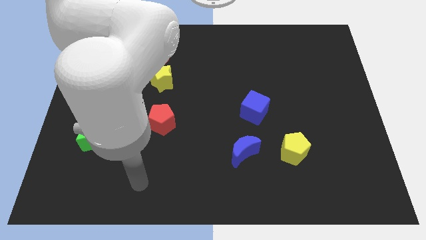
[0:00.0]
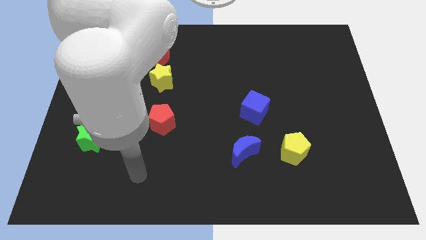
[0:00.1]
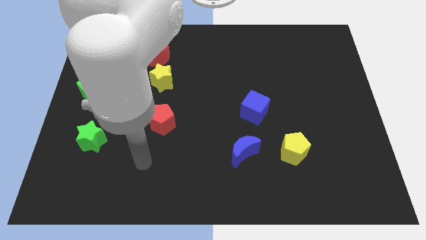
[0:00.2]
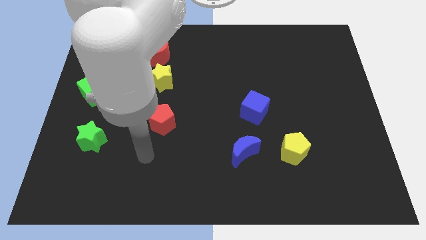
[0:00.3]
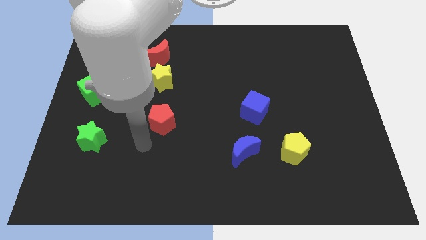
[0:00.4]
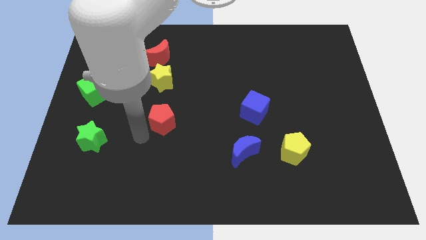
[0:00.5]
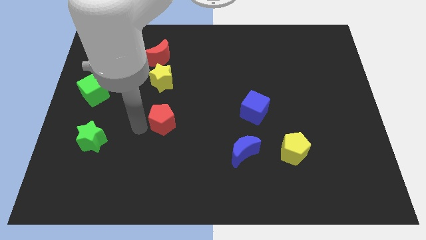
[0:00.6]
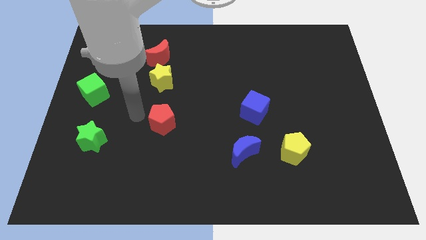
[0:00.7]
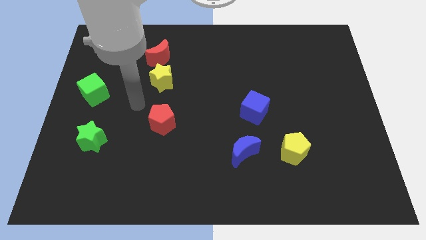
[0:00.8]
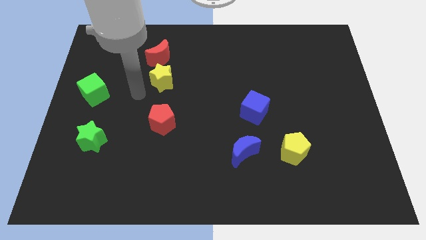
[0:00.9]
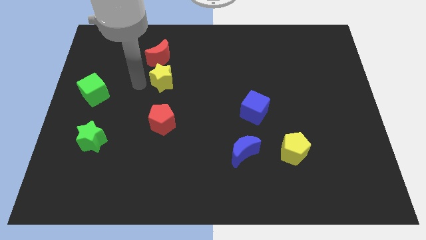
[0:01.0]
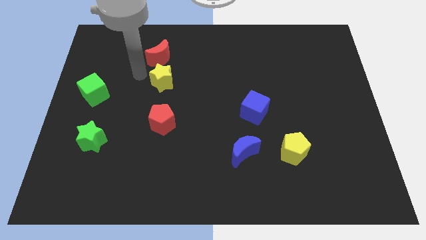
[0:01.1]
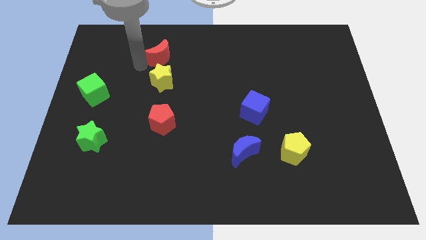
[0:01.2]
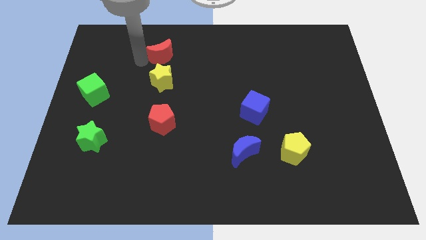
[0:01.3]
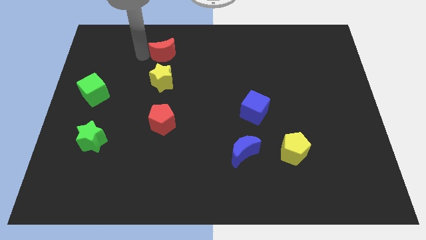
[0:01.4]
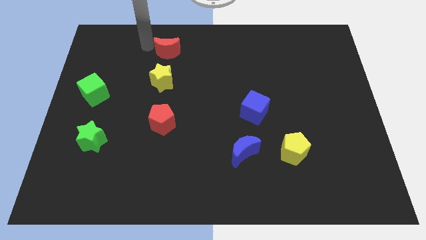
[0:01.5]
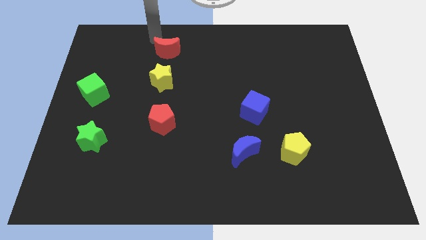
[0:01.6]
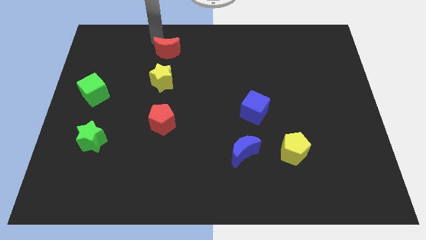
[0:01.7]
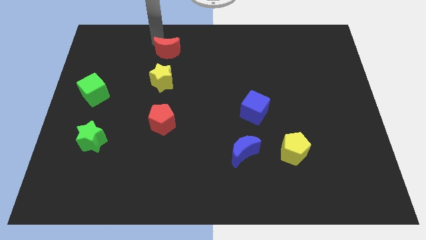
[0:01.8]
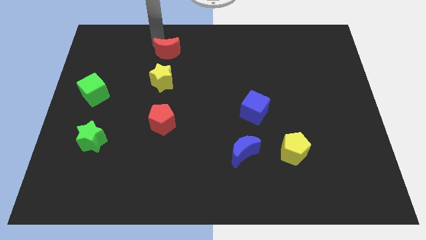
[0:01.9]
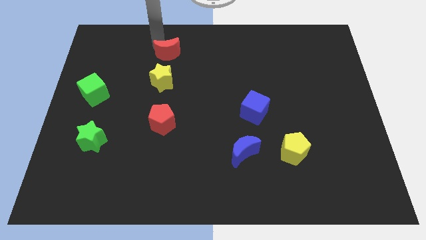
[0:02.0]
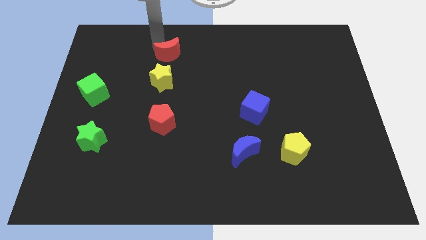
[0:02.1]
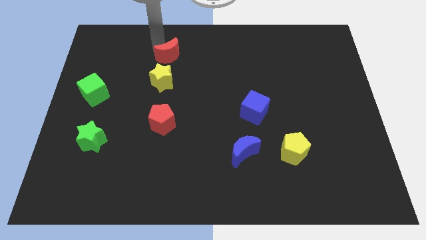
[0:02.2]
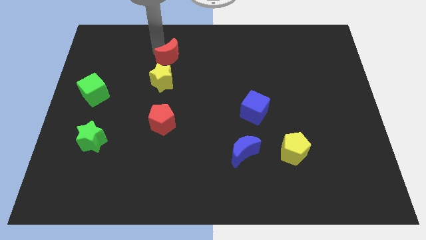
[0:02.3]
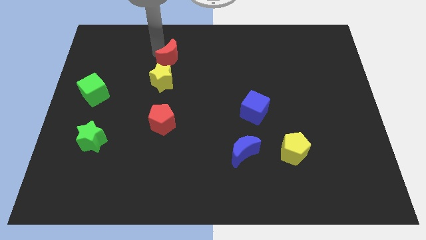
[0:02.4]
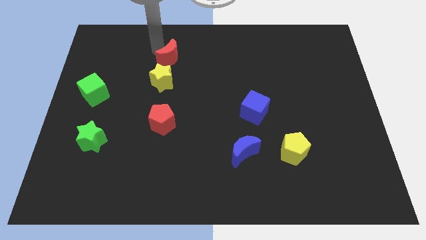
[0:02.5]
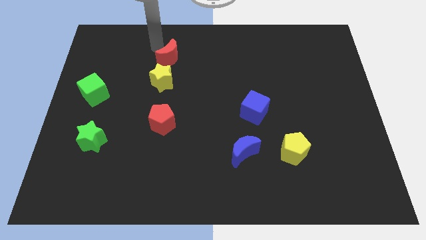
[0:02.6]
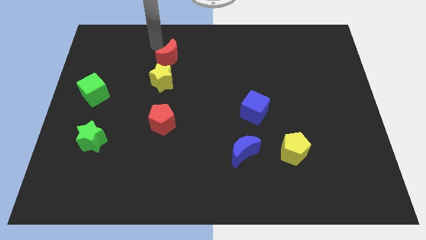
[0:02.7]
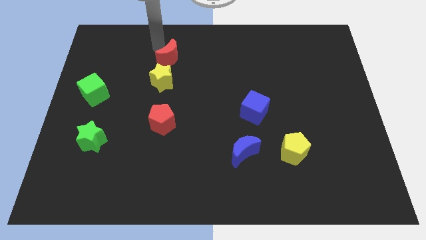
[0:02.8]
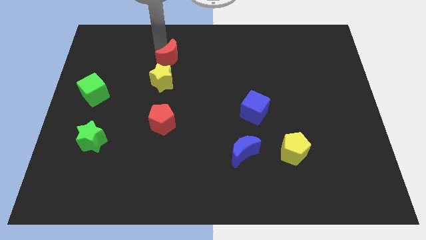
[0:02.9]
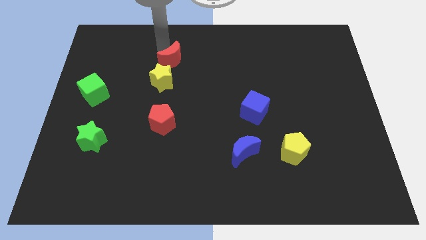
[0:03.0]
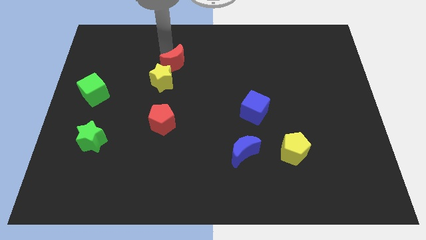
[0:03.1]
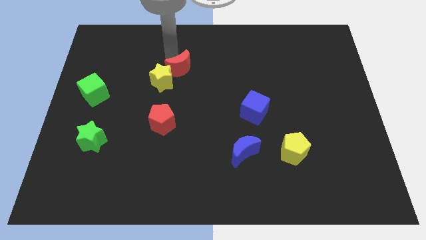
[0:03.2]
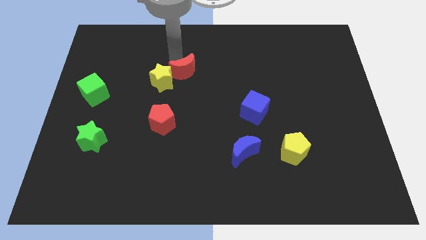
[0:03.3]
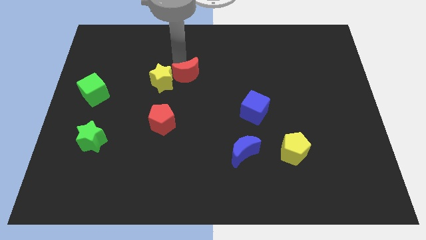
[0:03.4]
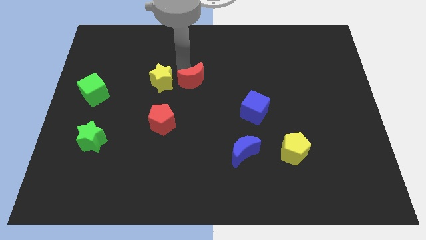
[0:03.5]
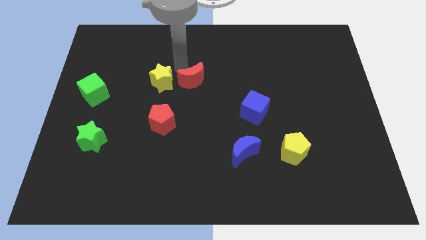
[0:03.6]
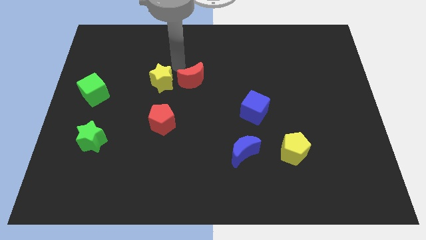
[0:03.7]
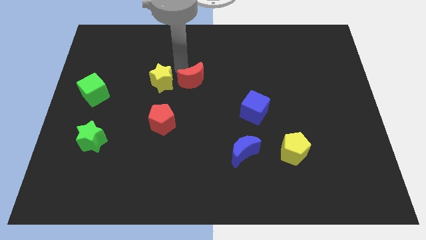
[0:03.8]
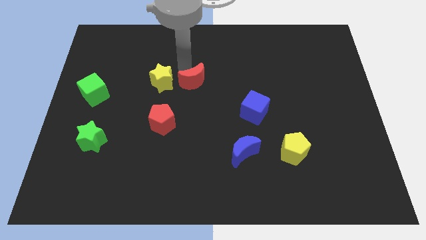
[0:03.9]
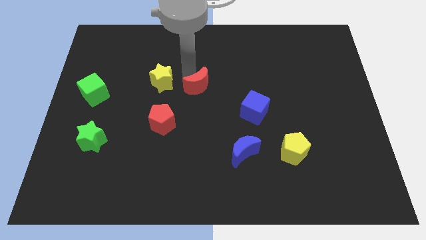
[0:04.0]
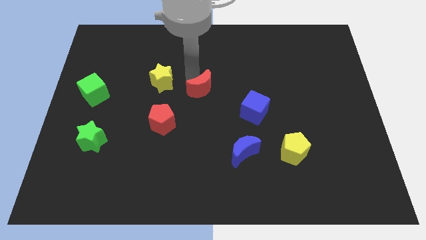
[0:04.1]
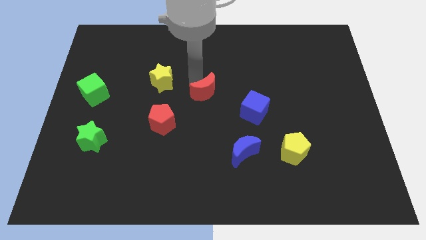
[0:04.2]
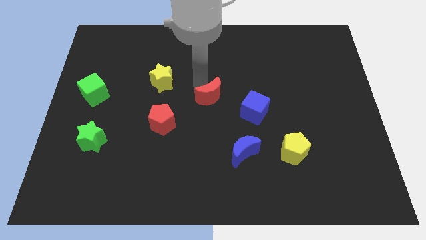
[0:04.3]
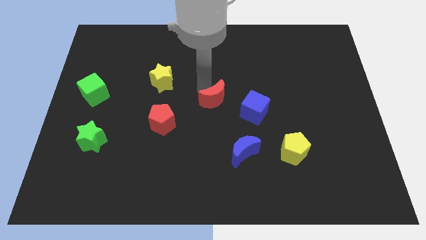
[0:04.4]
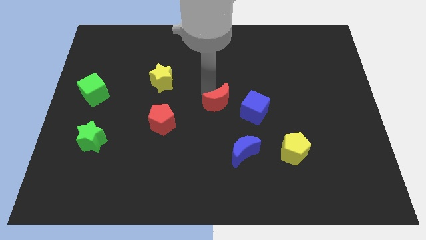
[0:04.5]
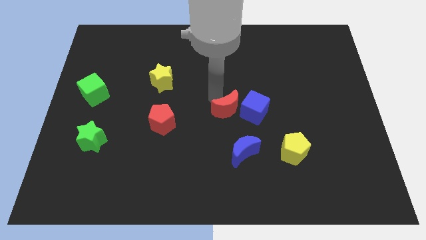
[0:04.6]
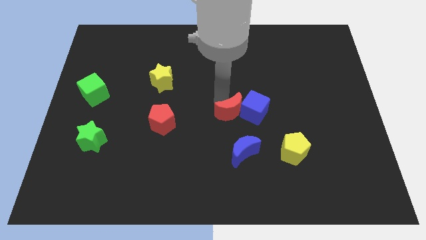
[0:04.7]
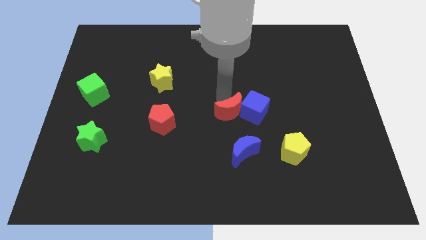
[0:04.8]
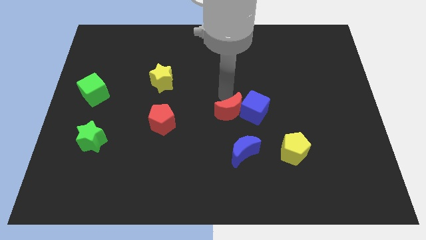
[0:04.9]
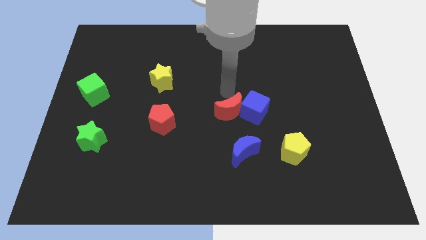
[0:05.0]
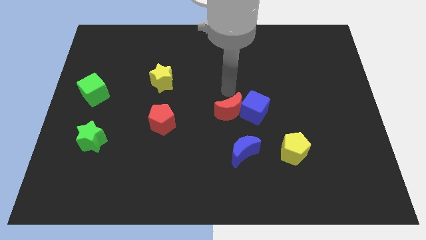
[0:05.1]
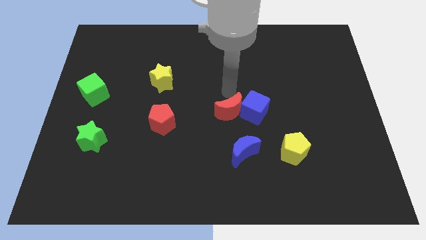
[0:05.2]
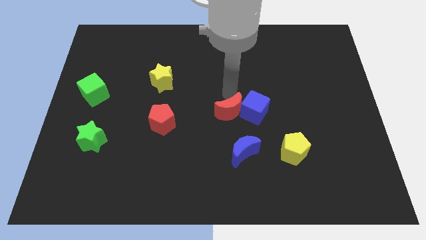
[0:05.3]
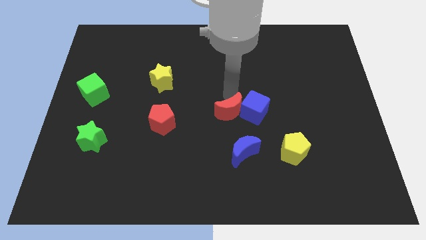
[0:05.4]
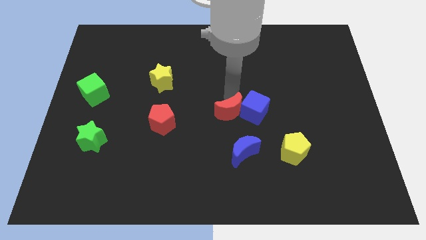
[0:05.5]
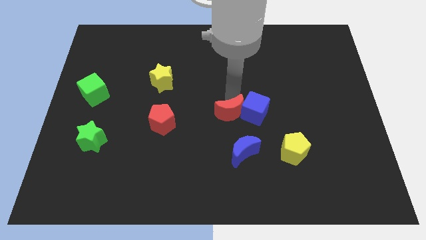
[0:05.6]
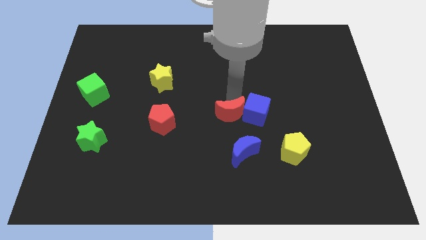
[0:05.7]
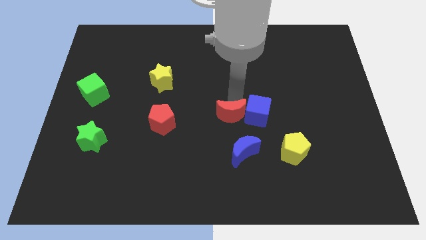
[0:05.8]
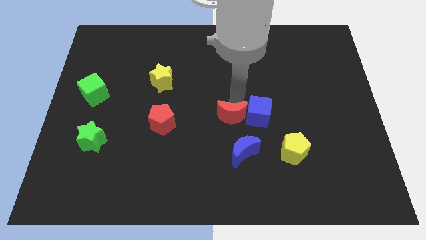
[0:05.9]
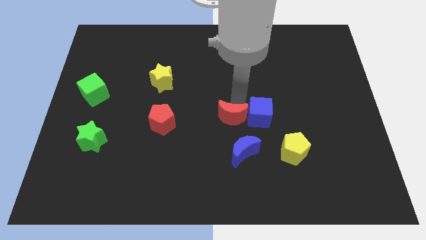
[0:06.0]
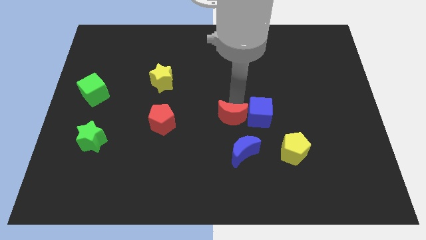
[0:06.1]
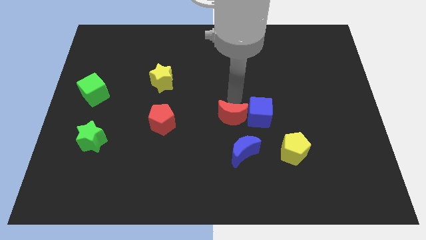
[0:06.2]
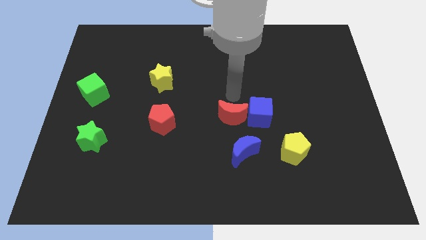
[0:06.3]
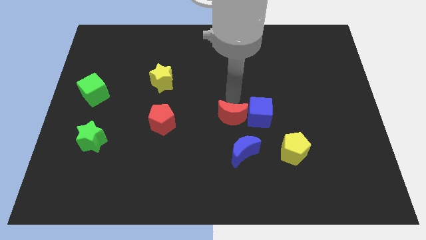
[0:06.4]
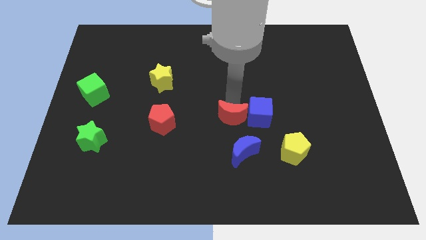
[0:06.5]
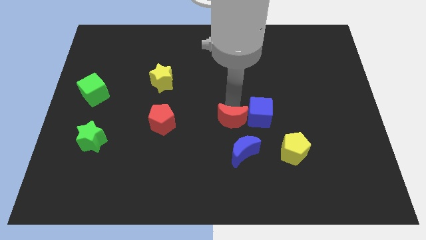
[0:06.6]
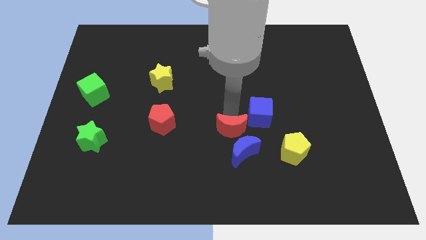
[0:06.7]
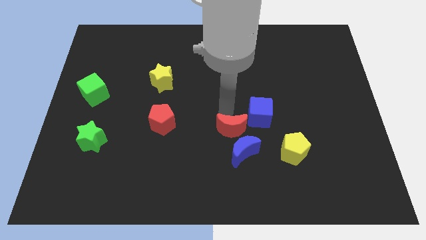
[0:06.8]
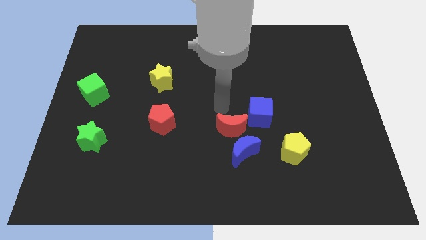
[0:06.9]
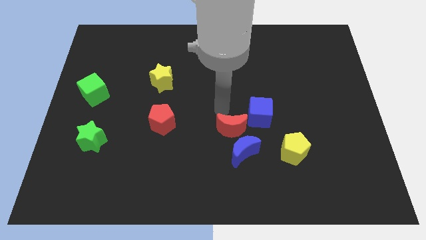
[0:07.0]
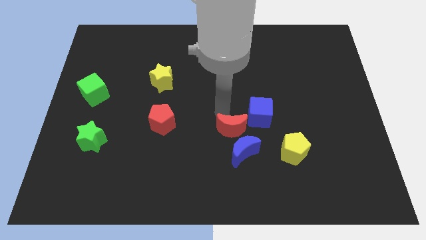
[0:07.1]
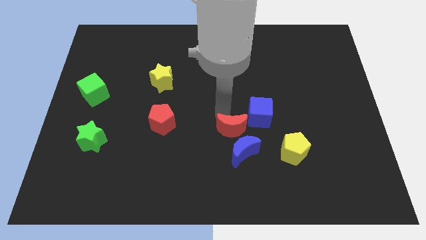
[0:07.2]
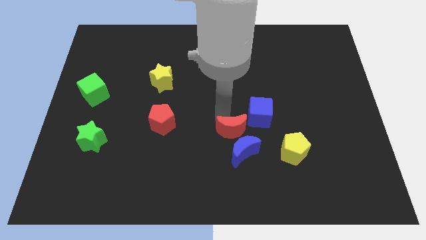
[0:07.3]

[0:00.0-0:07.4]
slide the red moon close to the blue moon
